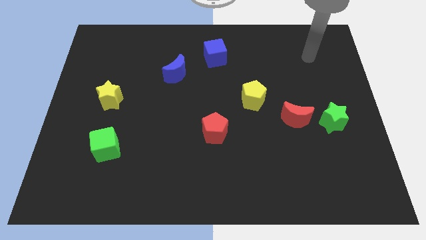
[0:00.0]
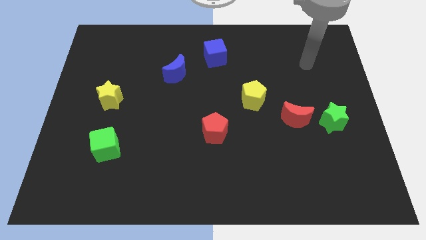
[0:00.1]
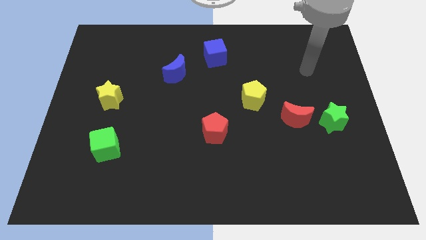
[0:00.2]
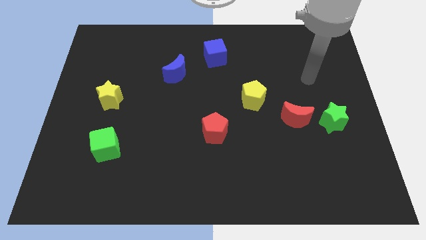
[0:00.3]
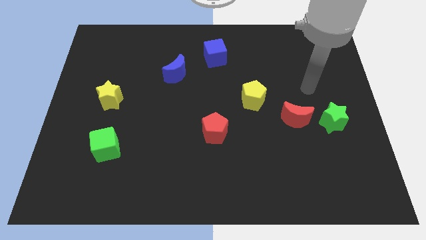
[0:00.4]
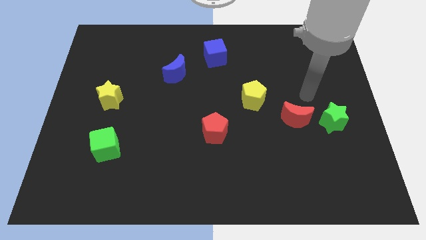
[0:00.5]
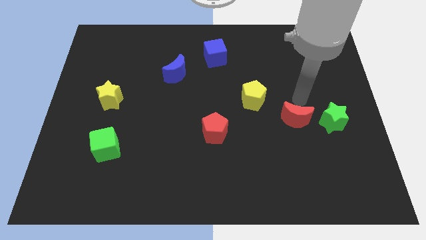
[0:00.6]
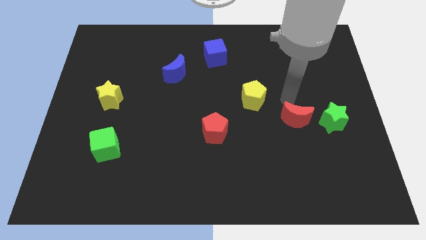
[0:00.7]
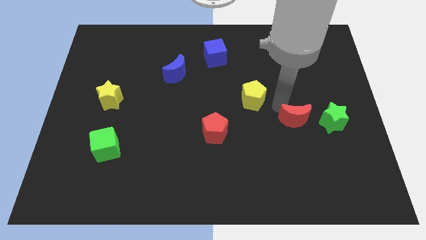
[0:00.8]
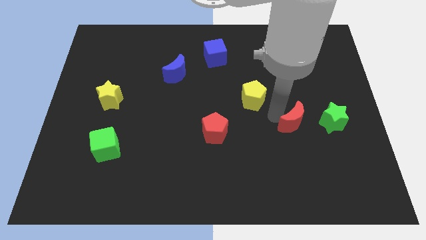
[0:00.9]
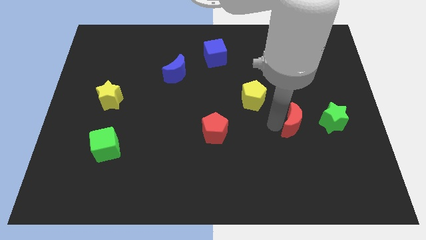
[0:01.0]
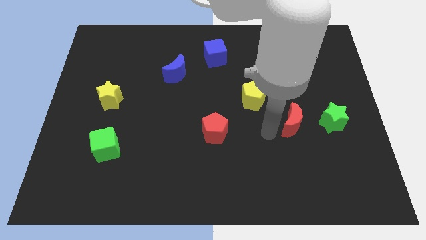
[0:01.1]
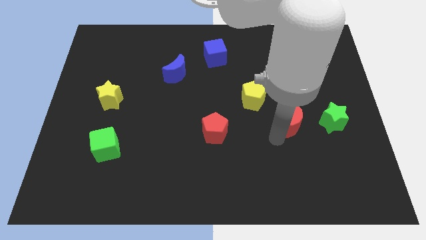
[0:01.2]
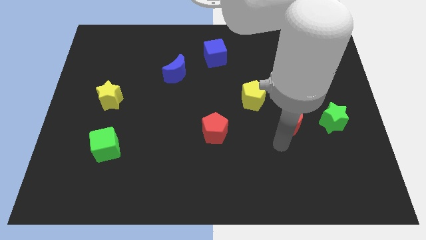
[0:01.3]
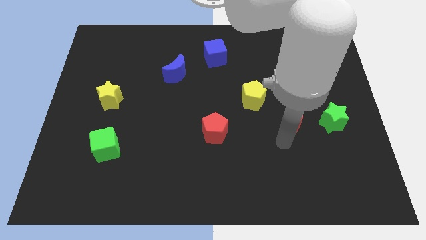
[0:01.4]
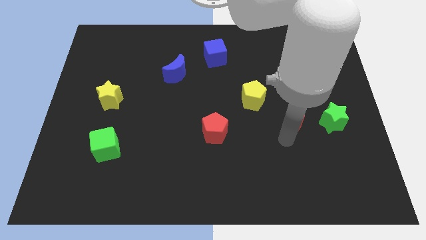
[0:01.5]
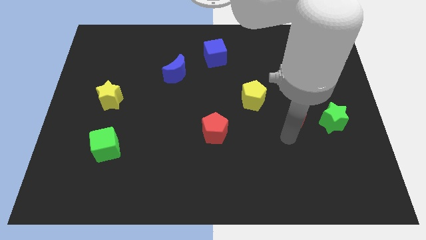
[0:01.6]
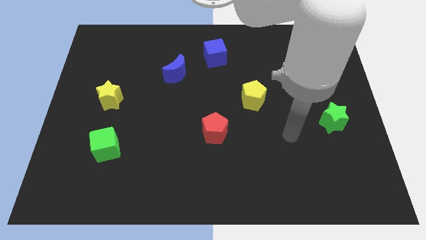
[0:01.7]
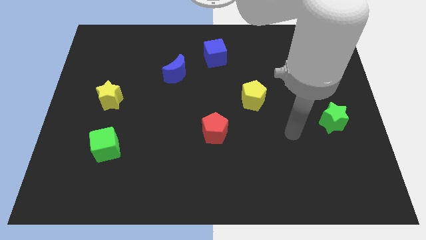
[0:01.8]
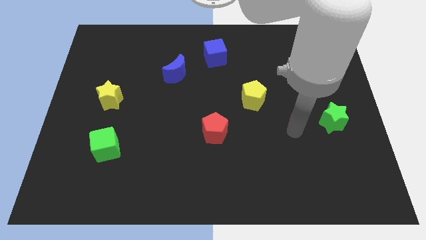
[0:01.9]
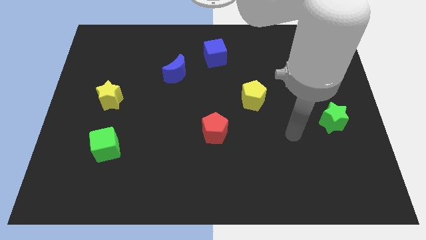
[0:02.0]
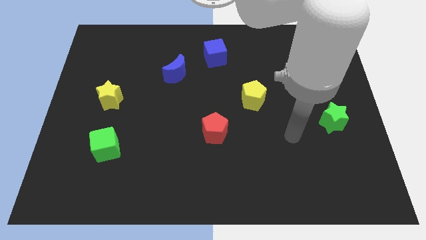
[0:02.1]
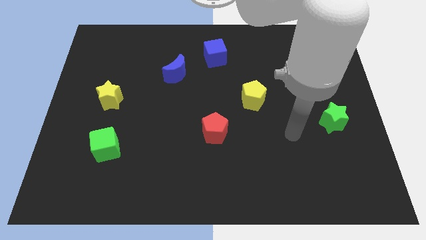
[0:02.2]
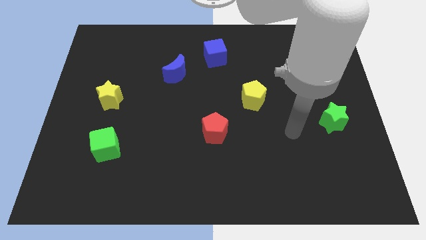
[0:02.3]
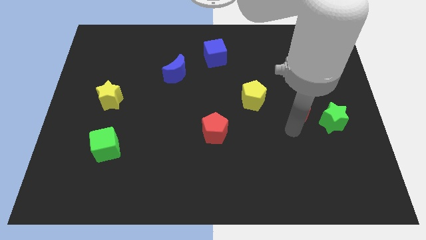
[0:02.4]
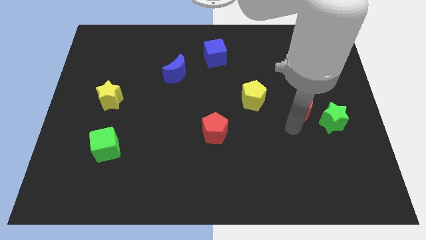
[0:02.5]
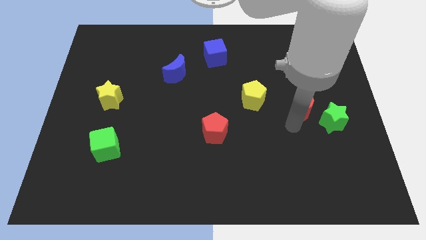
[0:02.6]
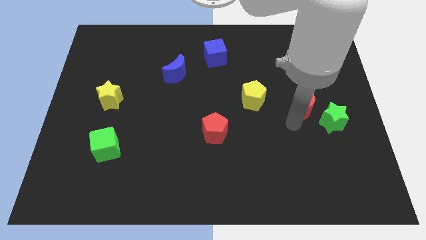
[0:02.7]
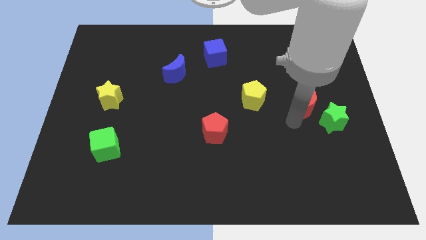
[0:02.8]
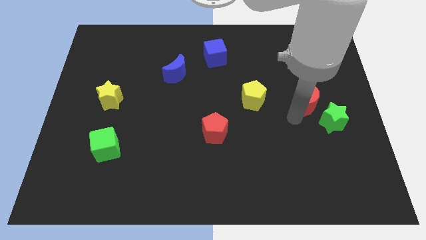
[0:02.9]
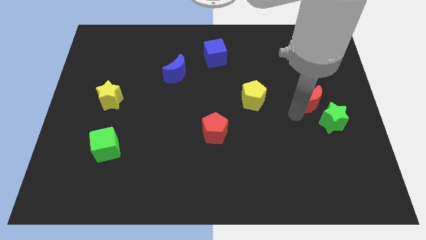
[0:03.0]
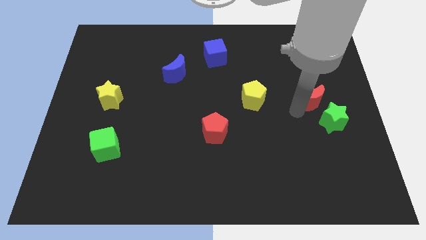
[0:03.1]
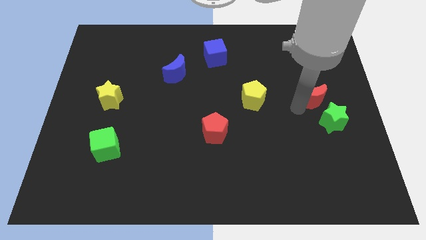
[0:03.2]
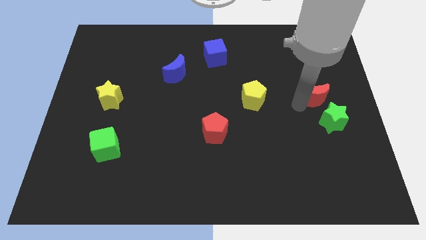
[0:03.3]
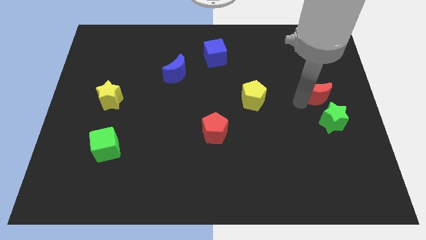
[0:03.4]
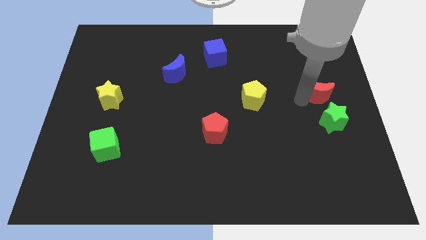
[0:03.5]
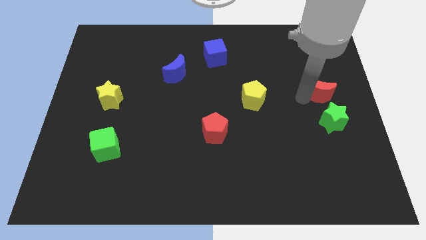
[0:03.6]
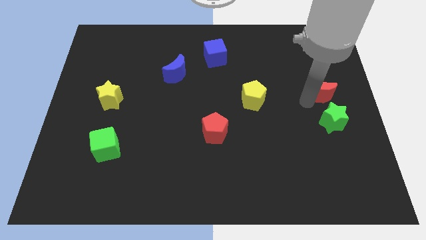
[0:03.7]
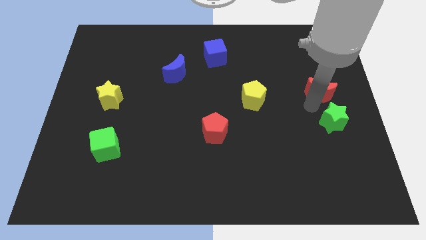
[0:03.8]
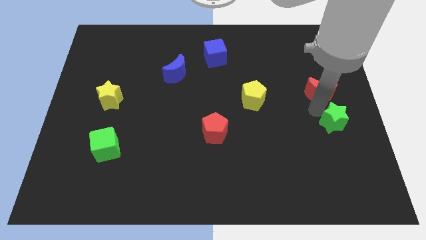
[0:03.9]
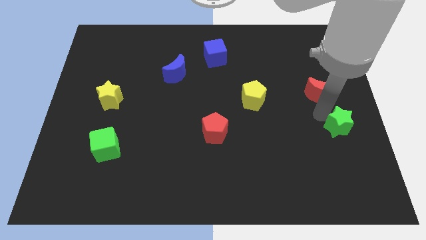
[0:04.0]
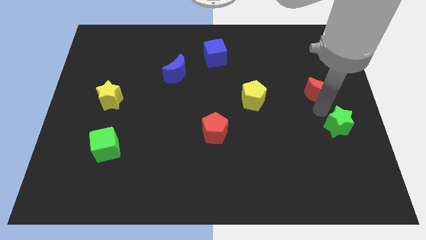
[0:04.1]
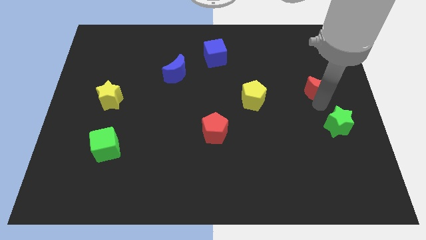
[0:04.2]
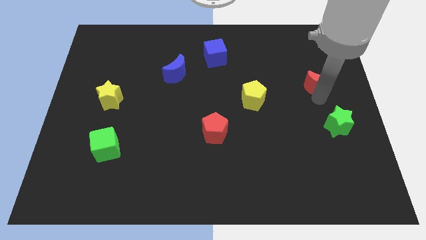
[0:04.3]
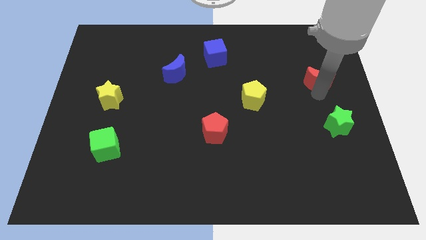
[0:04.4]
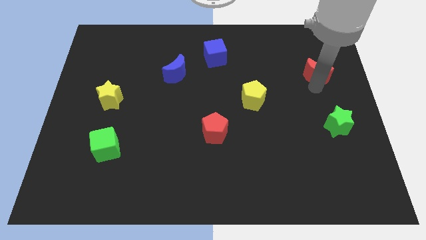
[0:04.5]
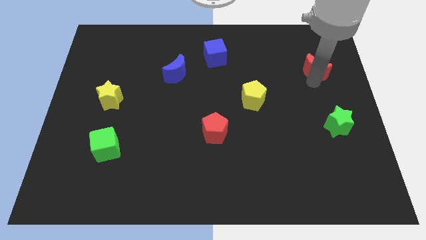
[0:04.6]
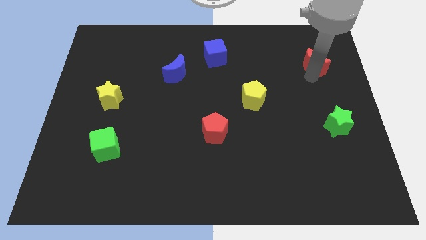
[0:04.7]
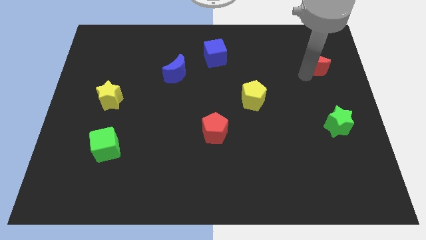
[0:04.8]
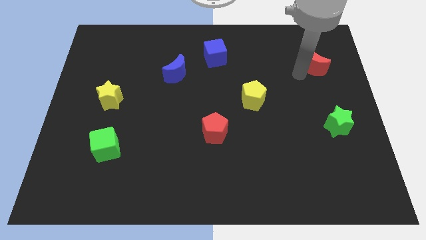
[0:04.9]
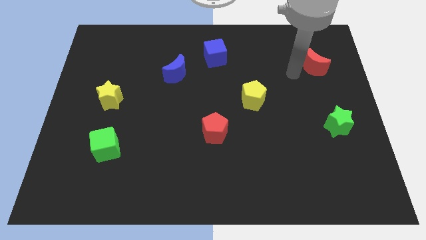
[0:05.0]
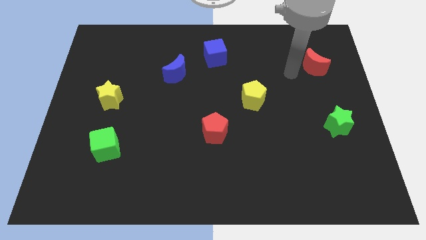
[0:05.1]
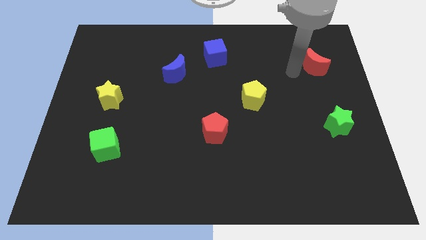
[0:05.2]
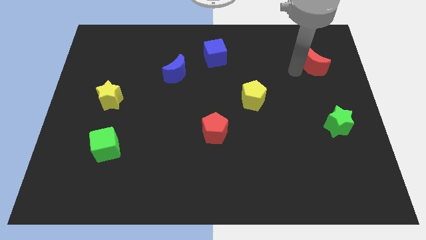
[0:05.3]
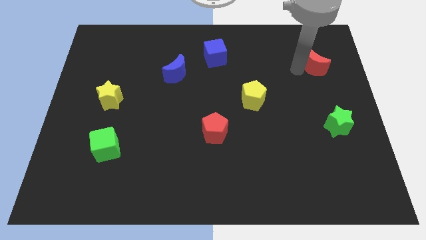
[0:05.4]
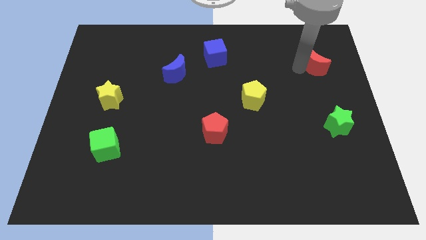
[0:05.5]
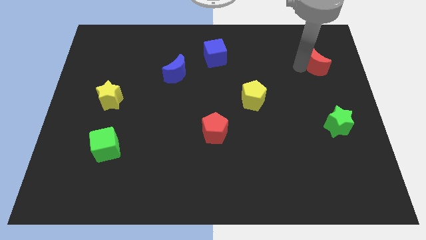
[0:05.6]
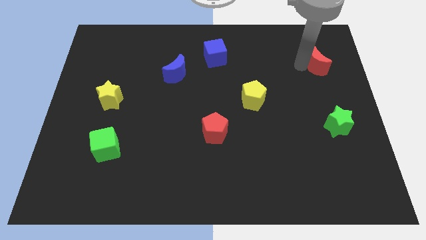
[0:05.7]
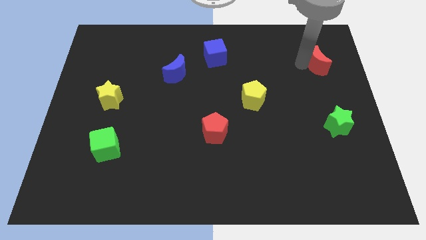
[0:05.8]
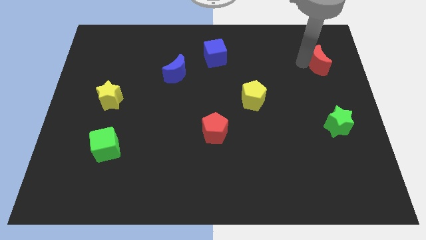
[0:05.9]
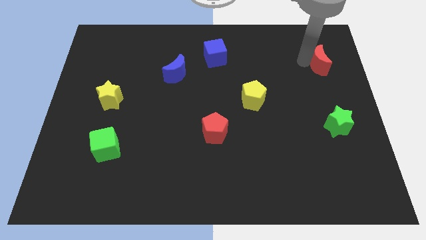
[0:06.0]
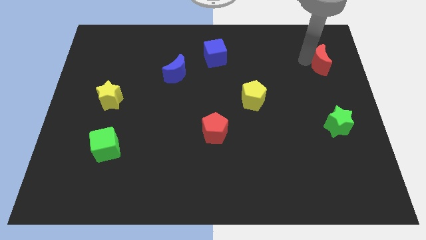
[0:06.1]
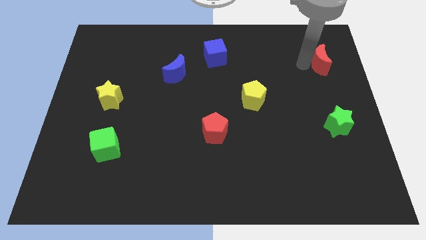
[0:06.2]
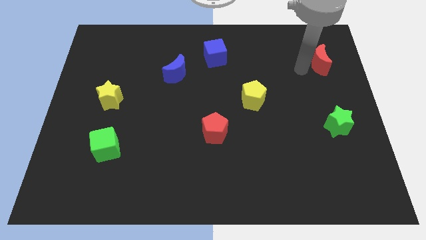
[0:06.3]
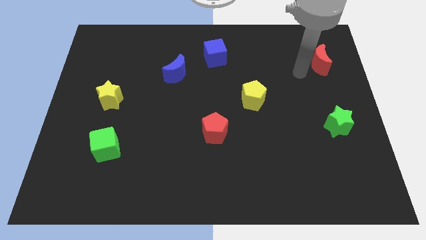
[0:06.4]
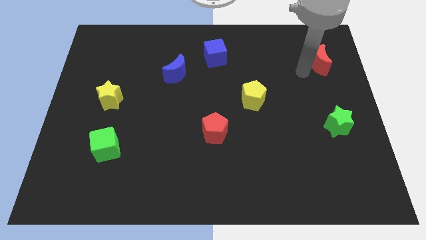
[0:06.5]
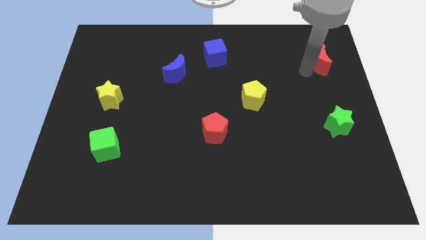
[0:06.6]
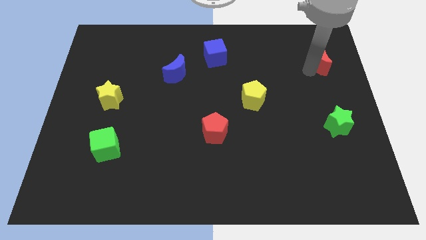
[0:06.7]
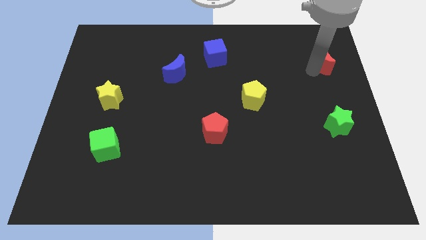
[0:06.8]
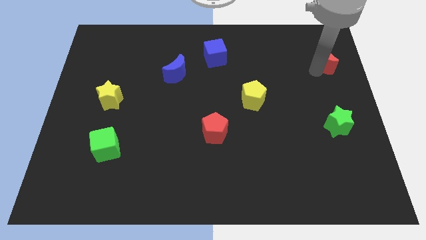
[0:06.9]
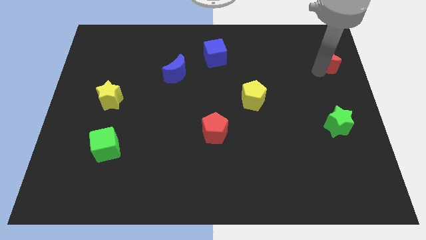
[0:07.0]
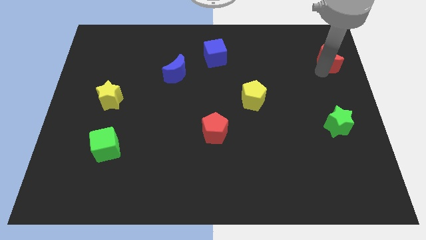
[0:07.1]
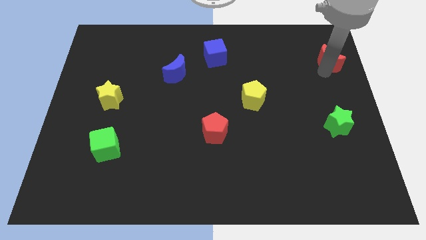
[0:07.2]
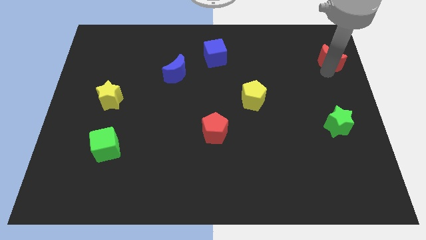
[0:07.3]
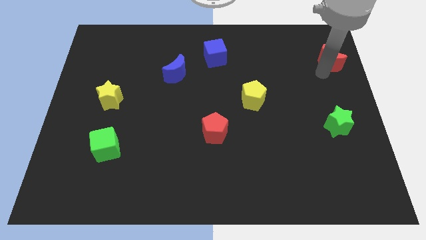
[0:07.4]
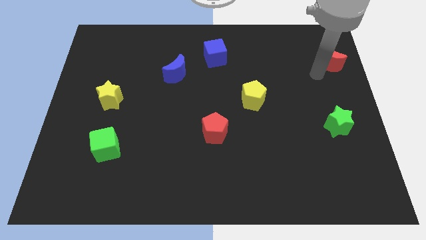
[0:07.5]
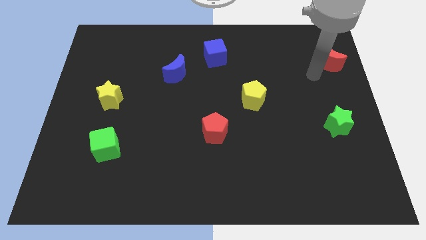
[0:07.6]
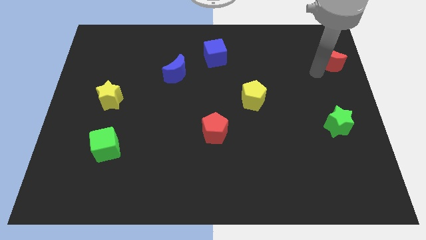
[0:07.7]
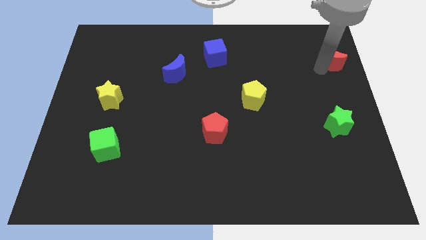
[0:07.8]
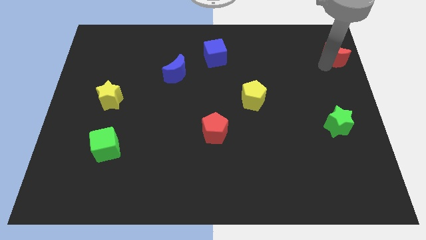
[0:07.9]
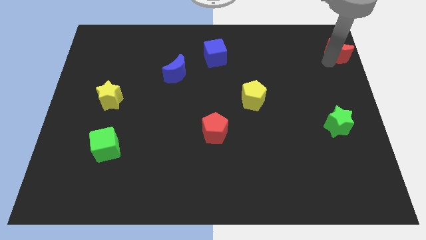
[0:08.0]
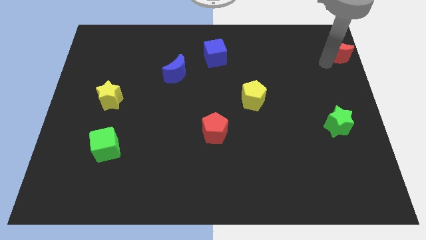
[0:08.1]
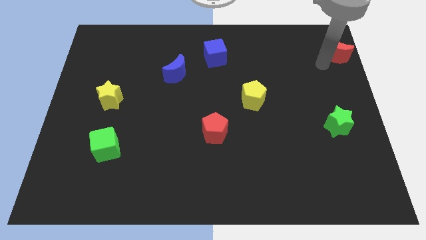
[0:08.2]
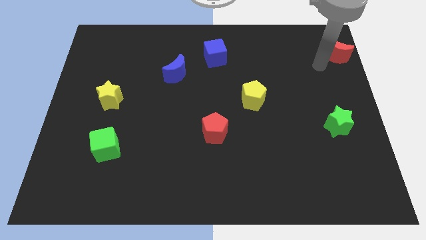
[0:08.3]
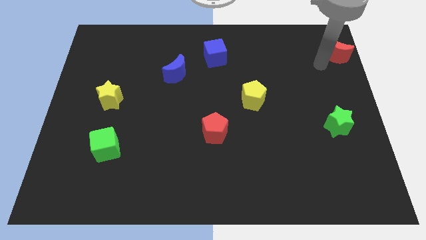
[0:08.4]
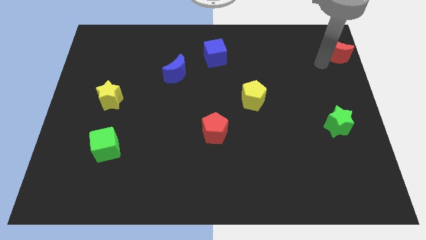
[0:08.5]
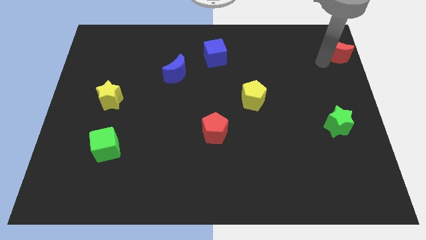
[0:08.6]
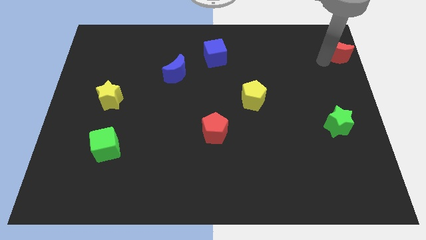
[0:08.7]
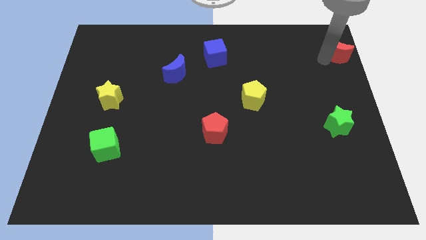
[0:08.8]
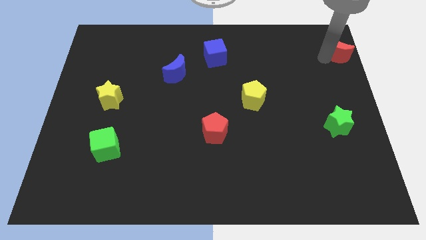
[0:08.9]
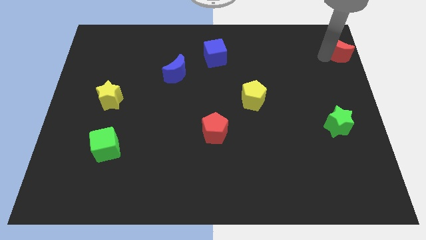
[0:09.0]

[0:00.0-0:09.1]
push the red moon to the upper right corner
